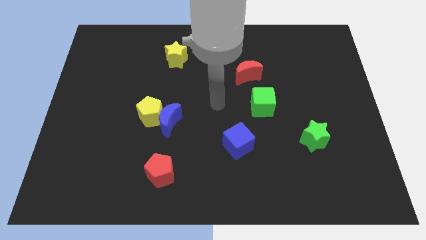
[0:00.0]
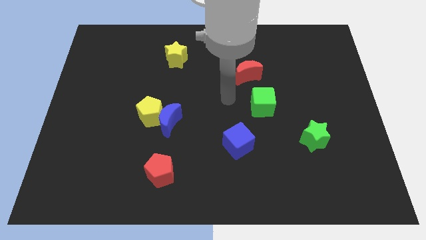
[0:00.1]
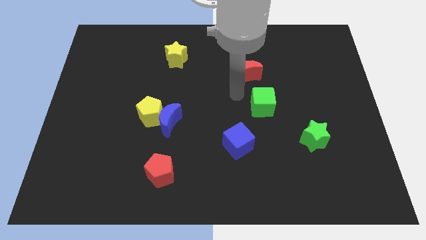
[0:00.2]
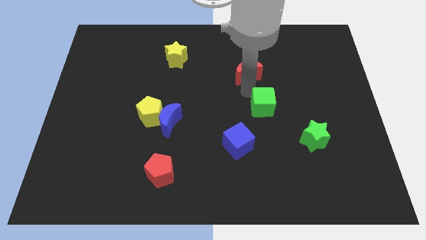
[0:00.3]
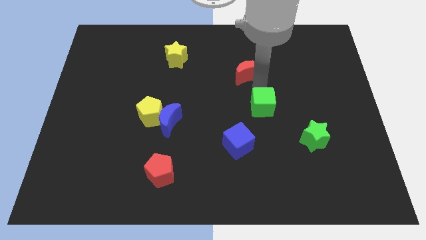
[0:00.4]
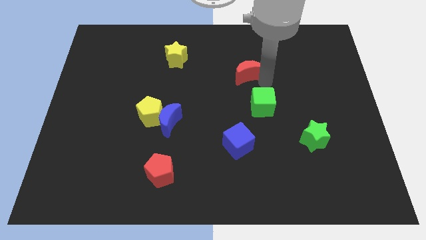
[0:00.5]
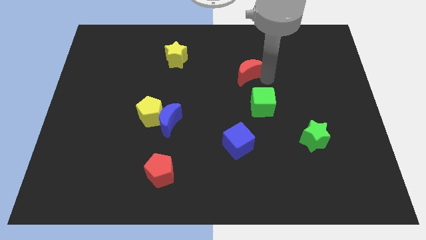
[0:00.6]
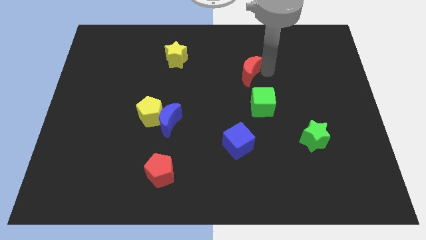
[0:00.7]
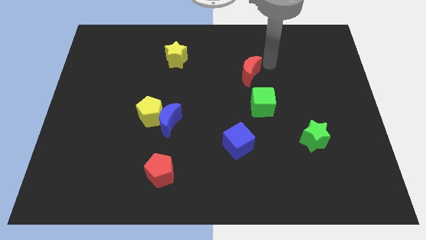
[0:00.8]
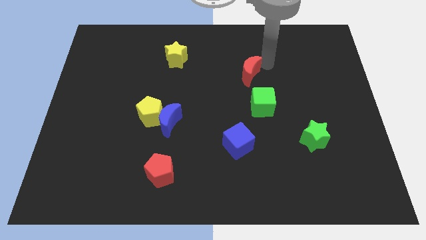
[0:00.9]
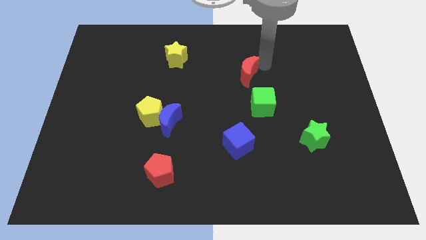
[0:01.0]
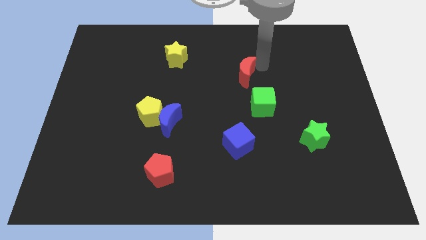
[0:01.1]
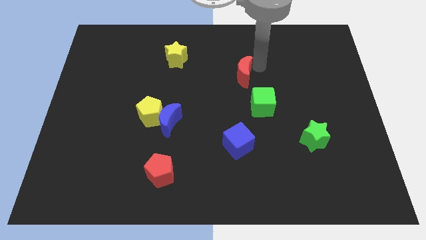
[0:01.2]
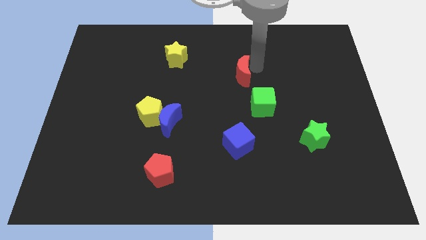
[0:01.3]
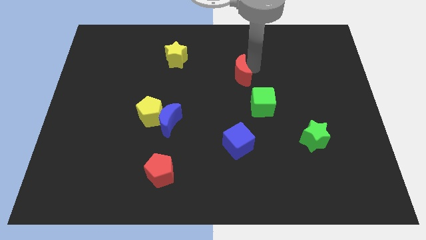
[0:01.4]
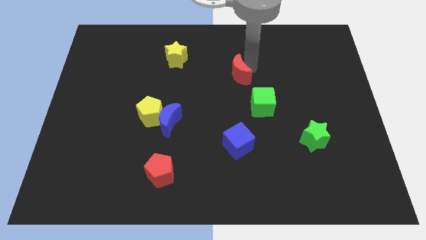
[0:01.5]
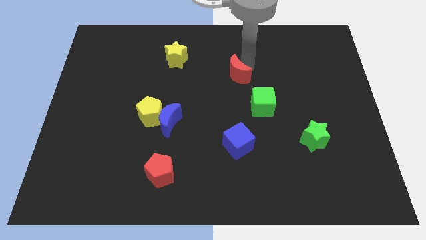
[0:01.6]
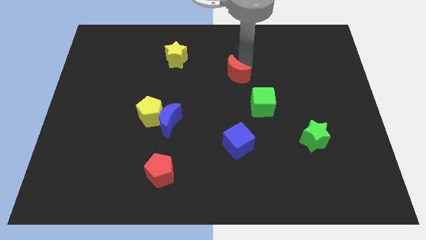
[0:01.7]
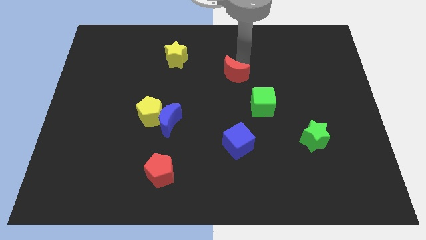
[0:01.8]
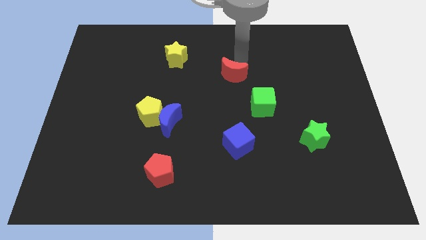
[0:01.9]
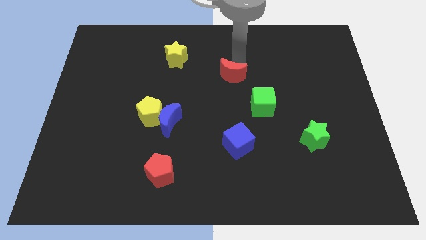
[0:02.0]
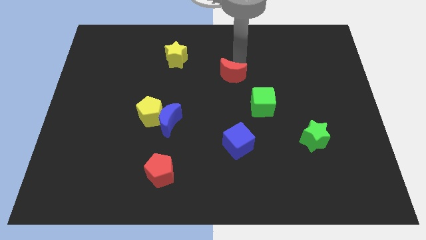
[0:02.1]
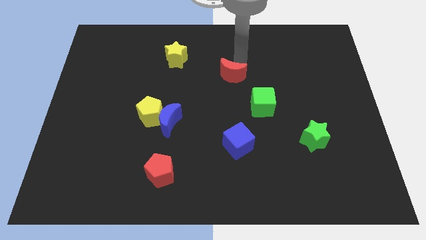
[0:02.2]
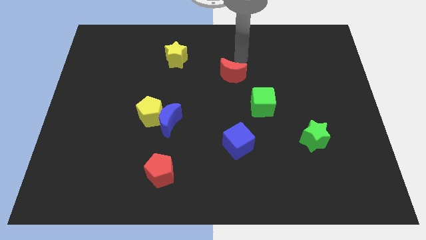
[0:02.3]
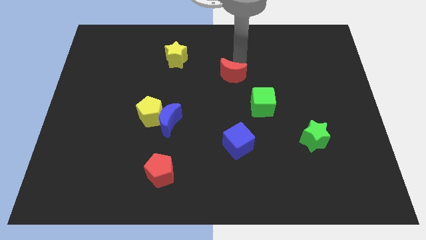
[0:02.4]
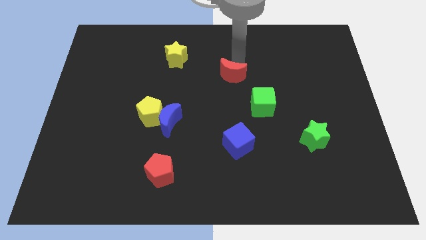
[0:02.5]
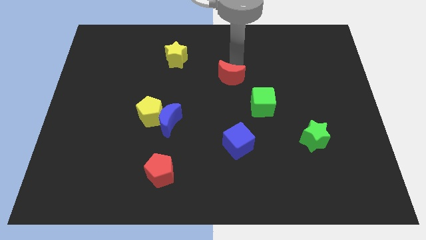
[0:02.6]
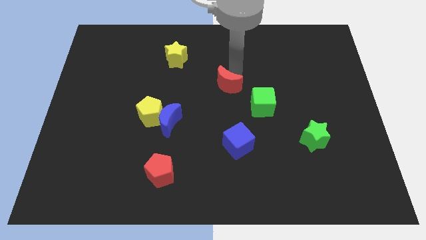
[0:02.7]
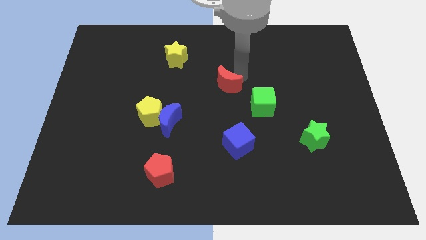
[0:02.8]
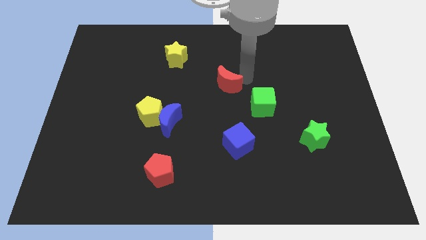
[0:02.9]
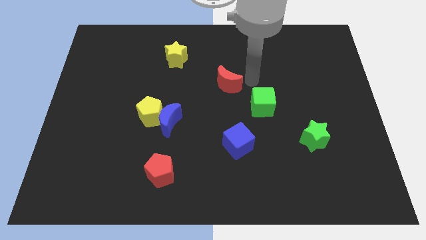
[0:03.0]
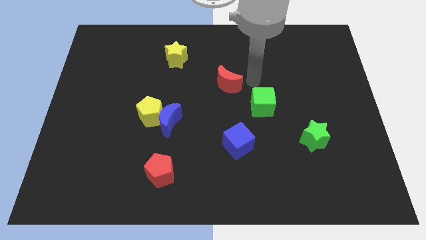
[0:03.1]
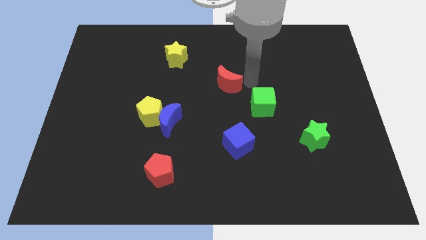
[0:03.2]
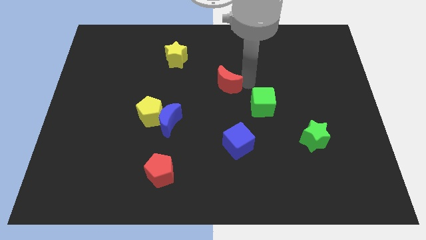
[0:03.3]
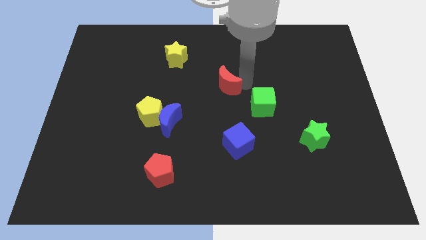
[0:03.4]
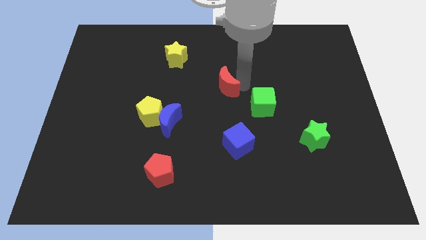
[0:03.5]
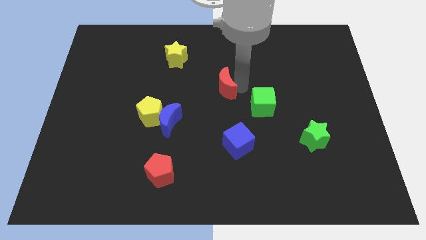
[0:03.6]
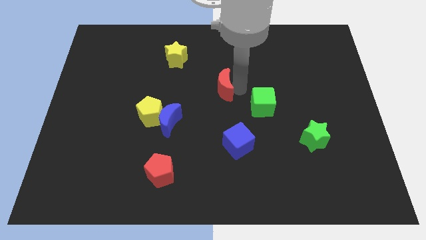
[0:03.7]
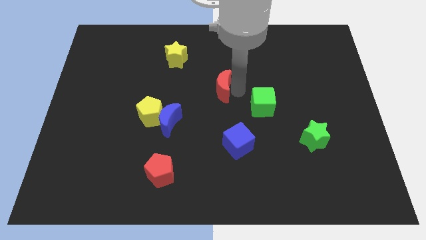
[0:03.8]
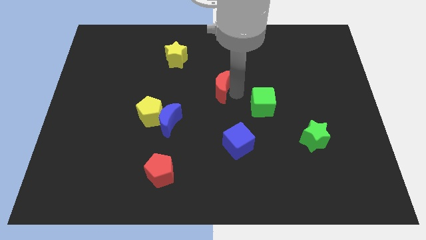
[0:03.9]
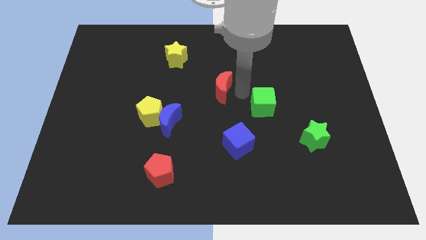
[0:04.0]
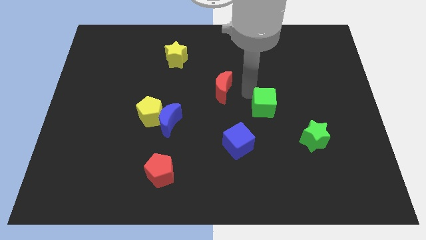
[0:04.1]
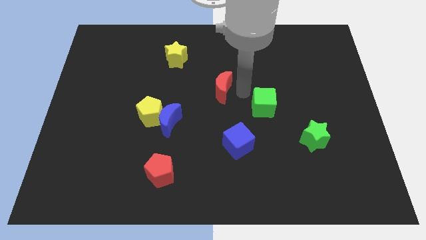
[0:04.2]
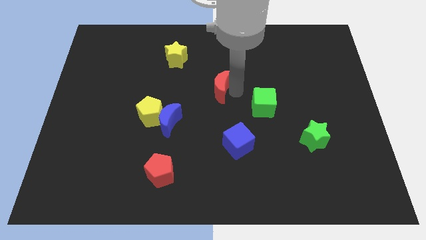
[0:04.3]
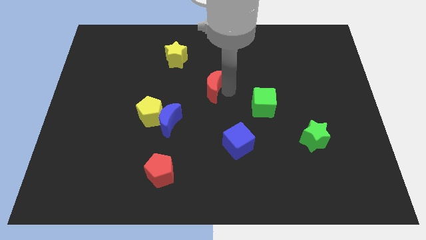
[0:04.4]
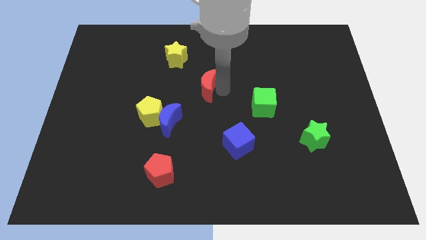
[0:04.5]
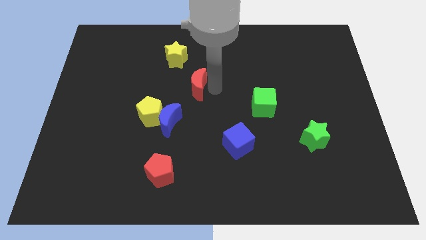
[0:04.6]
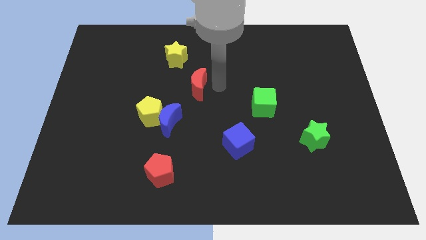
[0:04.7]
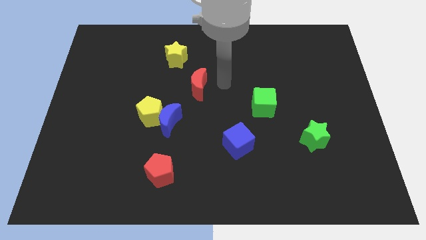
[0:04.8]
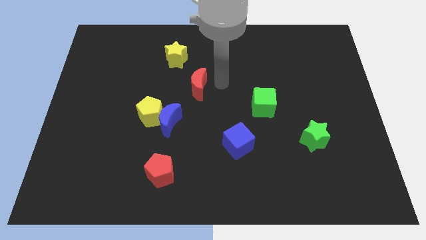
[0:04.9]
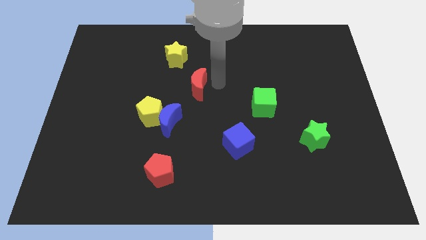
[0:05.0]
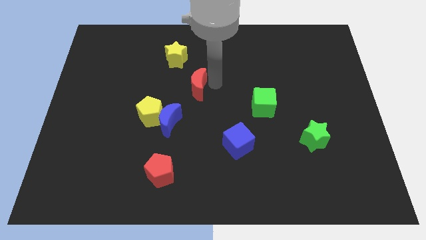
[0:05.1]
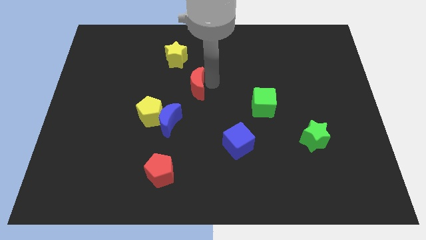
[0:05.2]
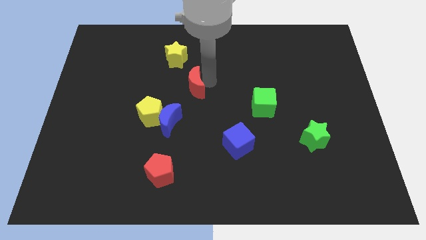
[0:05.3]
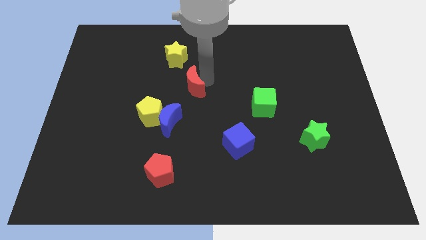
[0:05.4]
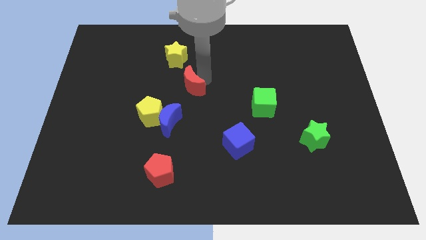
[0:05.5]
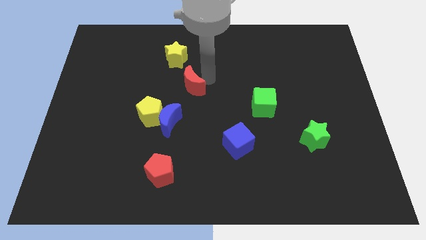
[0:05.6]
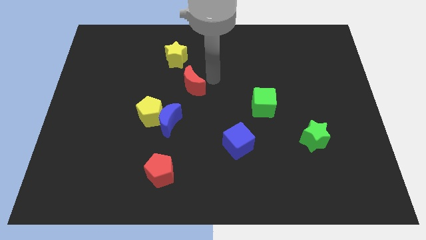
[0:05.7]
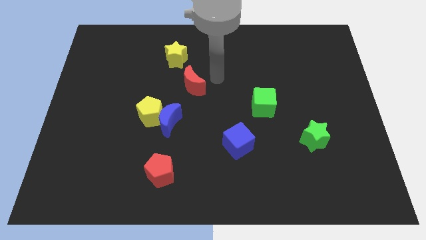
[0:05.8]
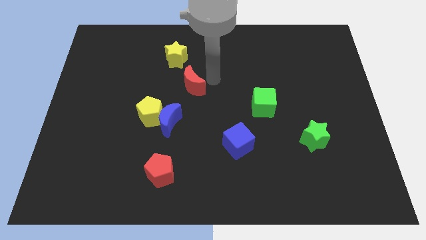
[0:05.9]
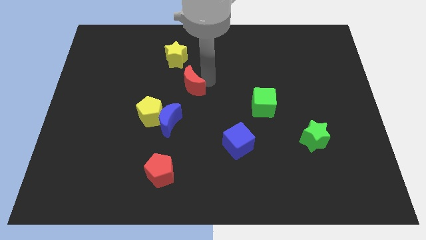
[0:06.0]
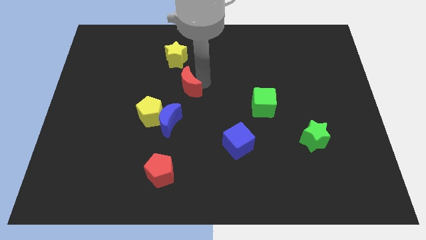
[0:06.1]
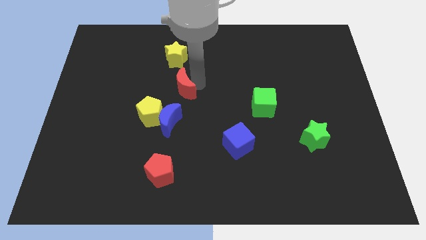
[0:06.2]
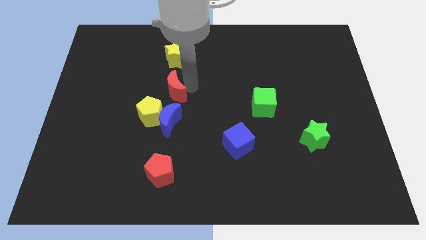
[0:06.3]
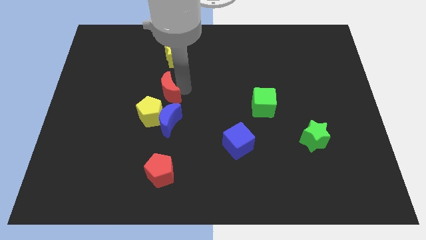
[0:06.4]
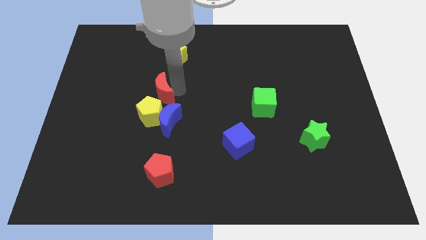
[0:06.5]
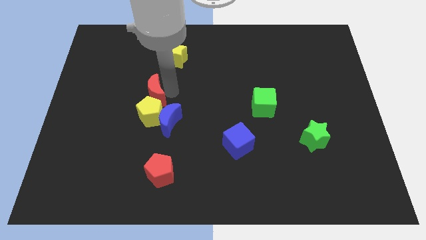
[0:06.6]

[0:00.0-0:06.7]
put the red moon to the top left side of the yellow pentagon

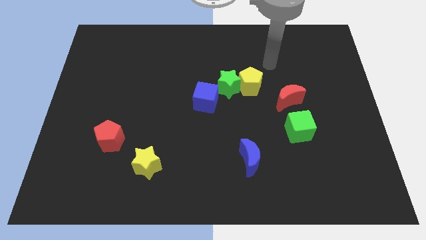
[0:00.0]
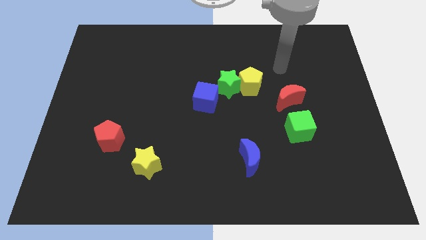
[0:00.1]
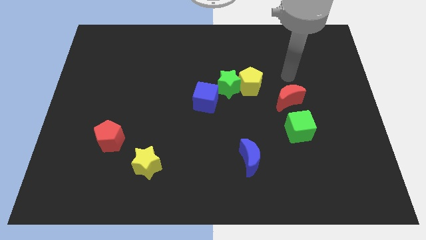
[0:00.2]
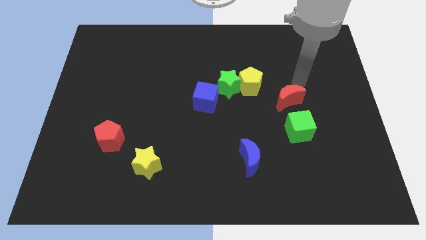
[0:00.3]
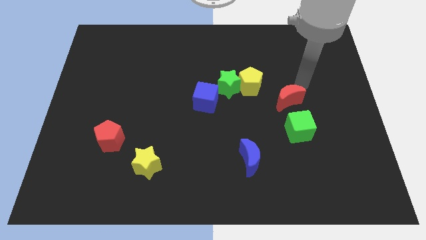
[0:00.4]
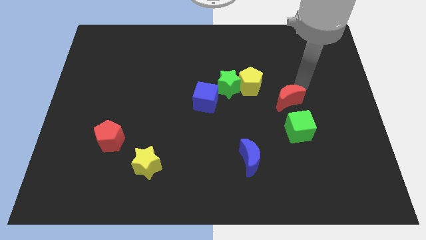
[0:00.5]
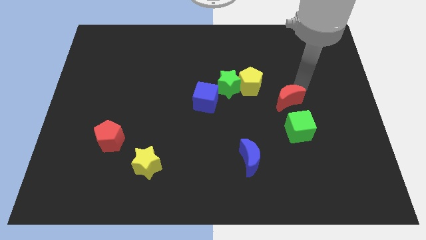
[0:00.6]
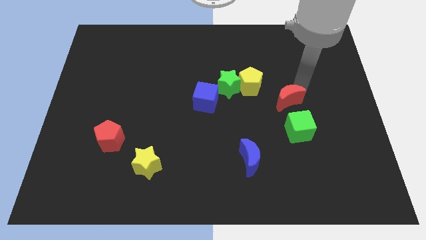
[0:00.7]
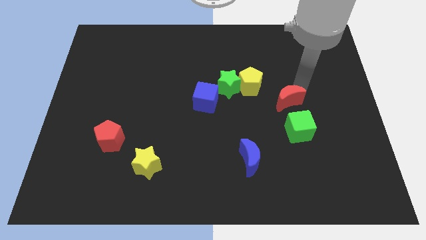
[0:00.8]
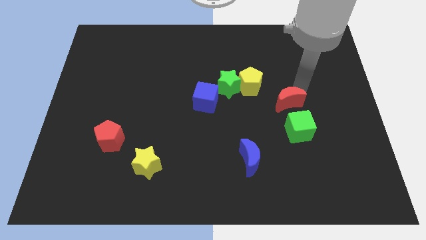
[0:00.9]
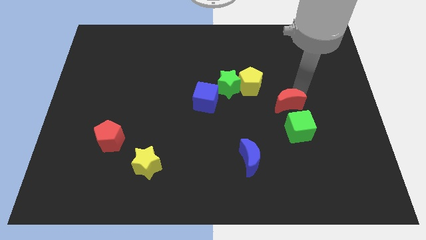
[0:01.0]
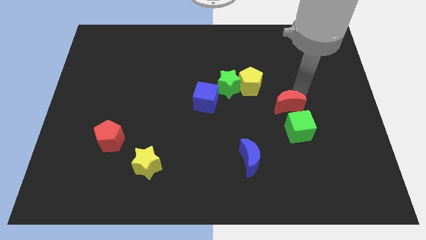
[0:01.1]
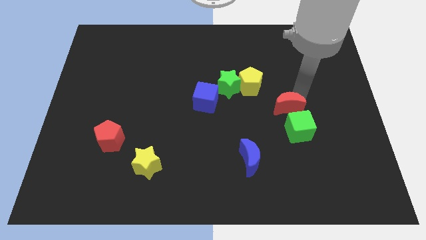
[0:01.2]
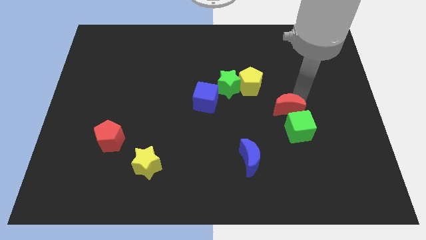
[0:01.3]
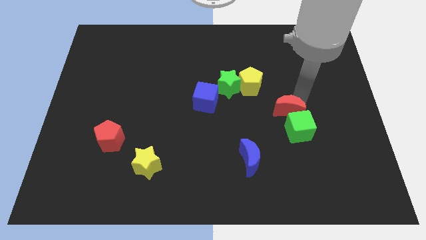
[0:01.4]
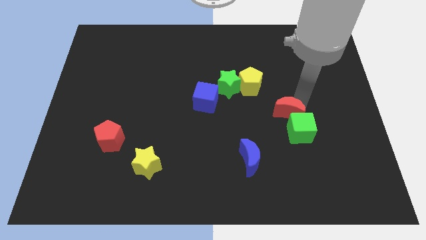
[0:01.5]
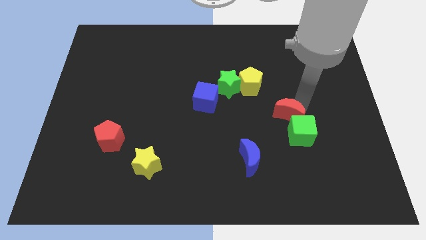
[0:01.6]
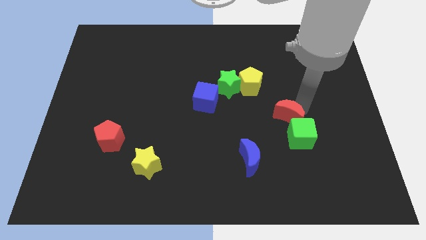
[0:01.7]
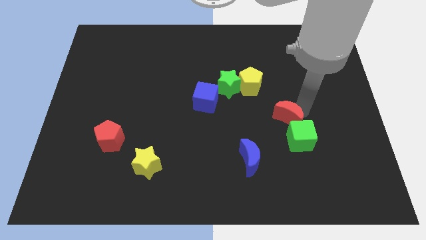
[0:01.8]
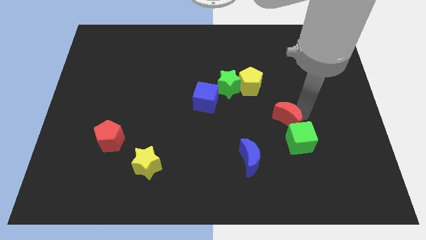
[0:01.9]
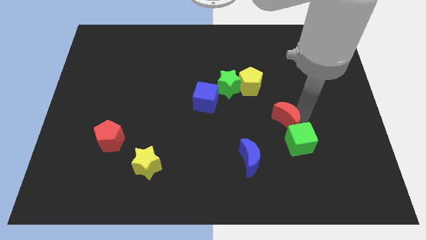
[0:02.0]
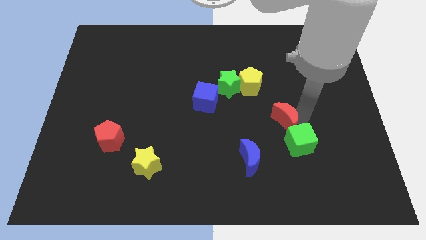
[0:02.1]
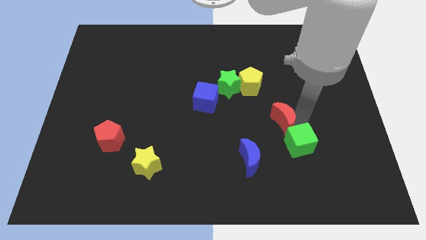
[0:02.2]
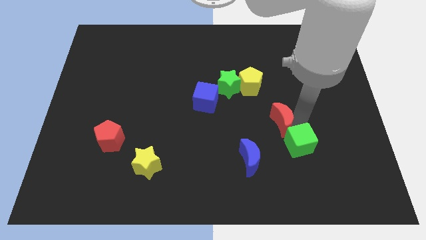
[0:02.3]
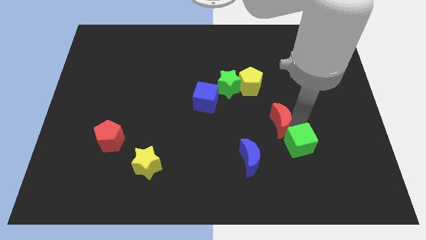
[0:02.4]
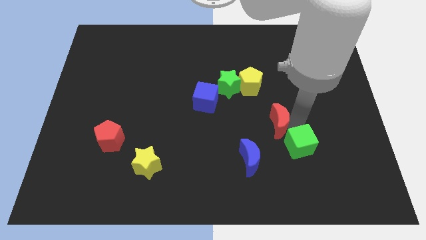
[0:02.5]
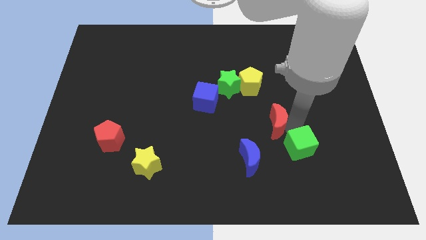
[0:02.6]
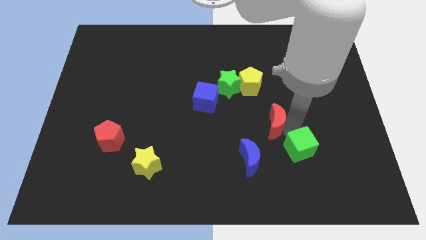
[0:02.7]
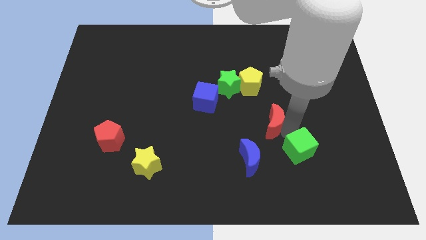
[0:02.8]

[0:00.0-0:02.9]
slide the red moon to the bottom of the yellow pentagon
